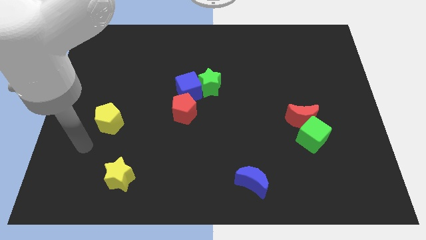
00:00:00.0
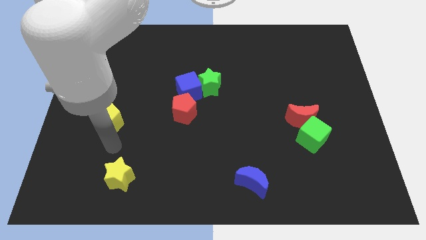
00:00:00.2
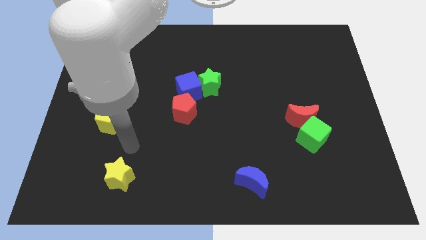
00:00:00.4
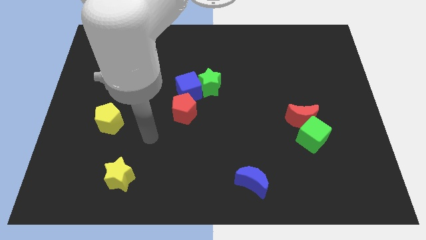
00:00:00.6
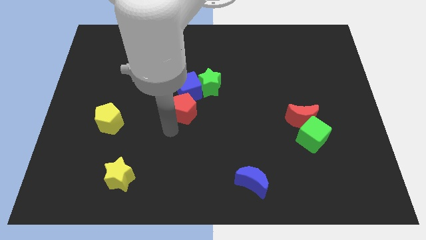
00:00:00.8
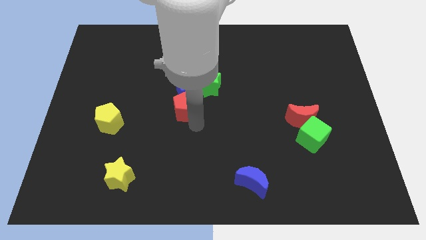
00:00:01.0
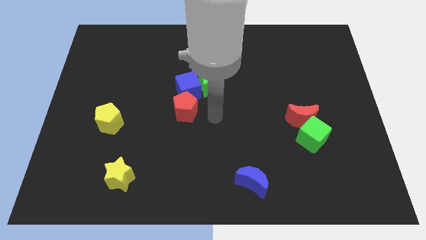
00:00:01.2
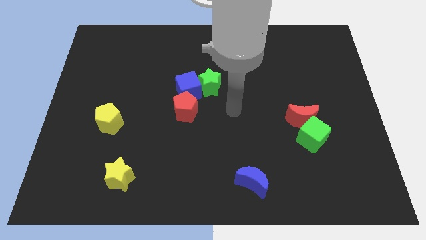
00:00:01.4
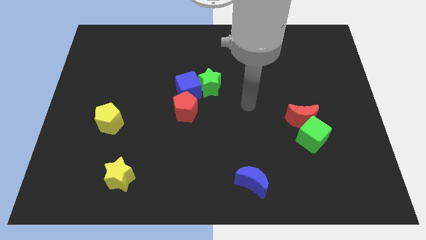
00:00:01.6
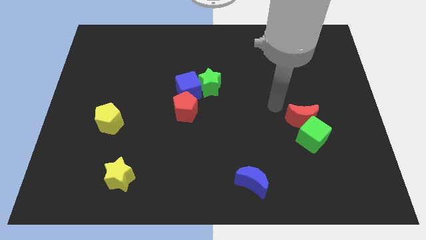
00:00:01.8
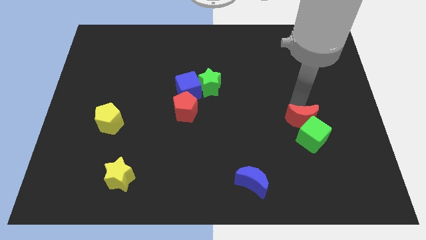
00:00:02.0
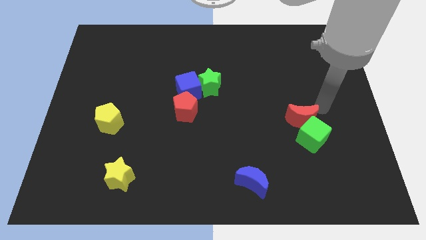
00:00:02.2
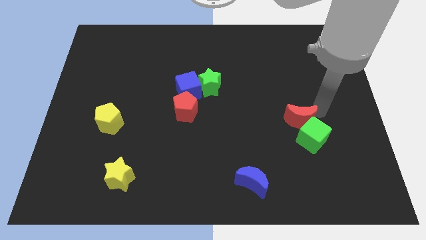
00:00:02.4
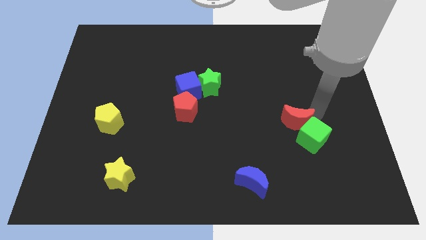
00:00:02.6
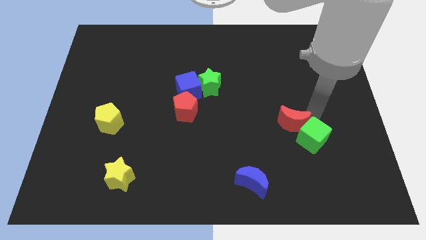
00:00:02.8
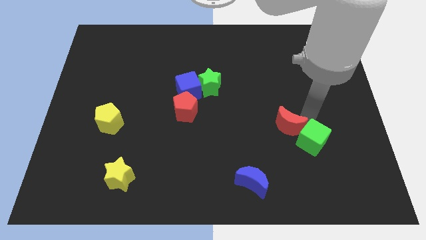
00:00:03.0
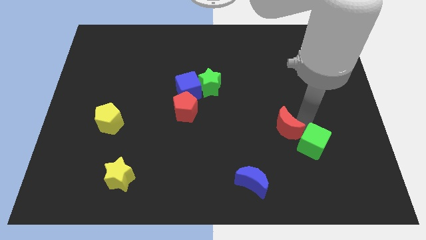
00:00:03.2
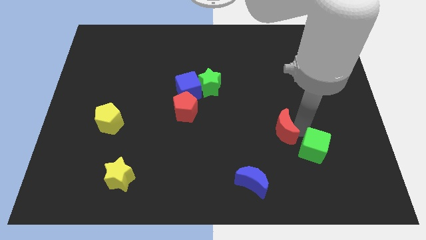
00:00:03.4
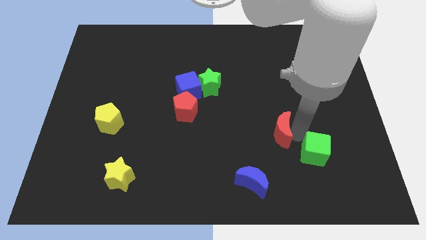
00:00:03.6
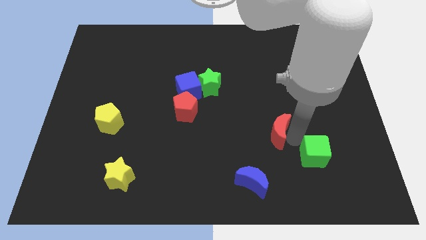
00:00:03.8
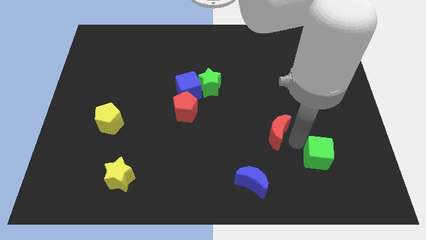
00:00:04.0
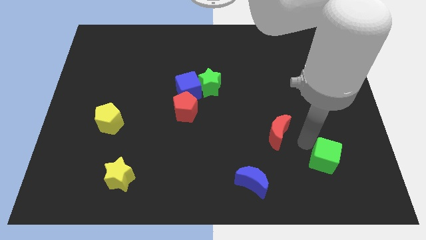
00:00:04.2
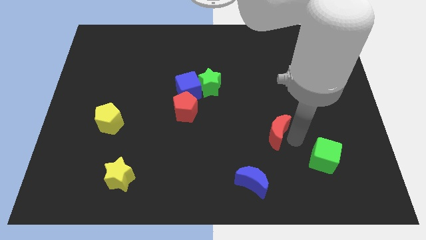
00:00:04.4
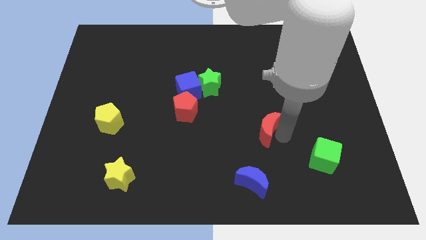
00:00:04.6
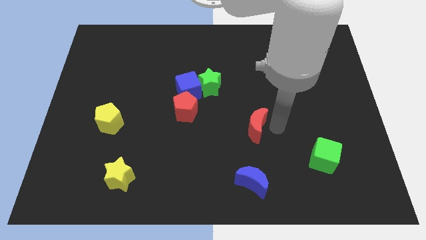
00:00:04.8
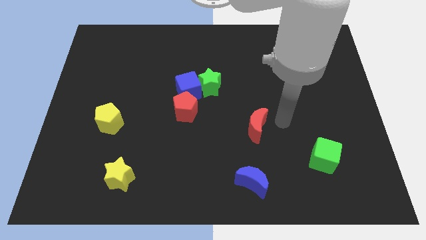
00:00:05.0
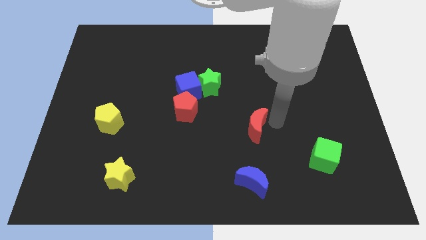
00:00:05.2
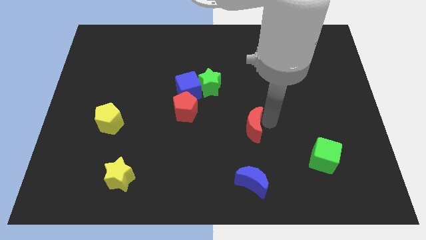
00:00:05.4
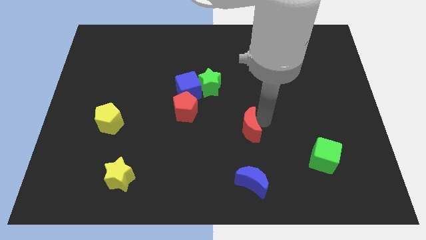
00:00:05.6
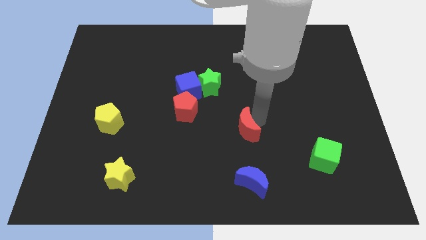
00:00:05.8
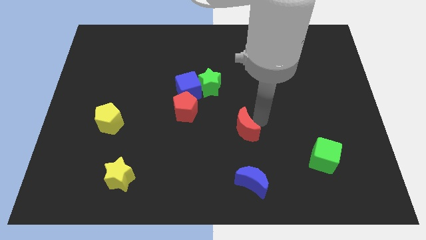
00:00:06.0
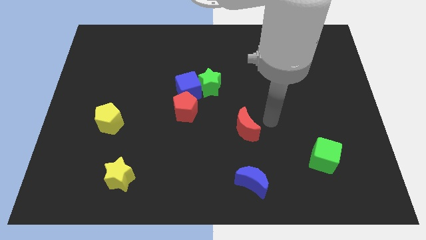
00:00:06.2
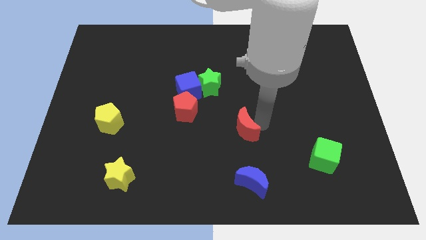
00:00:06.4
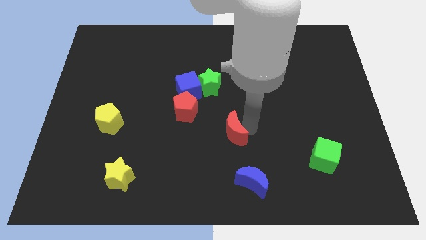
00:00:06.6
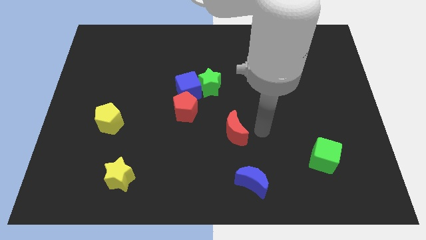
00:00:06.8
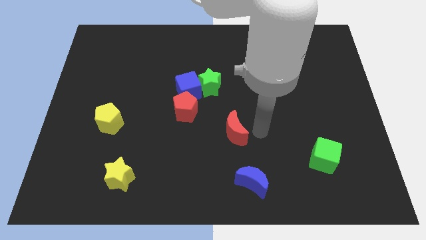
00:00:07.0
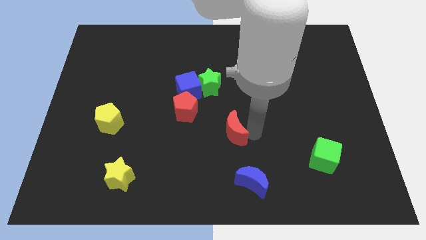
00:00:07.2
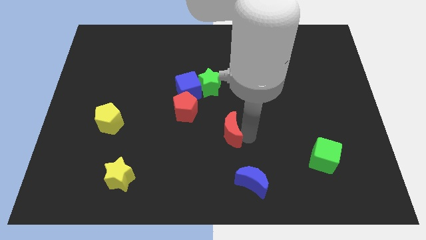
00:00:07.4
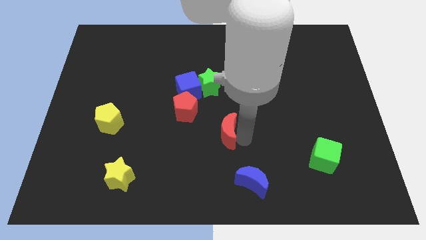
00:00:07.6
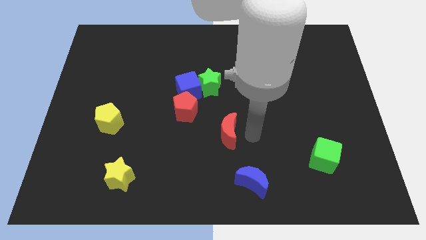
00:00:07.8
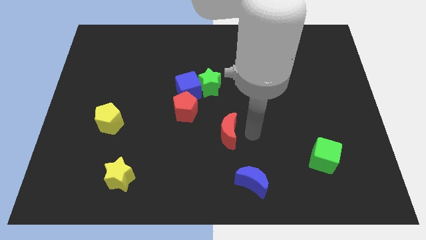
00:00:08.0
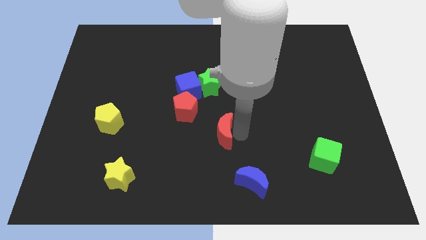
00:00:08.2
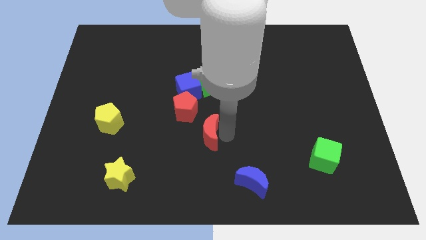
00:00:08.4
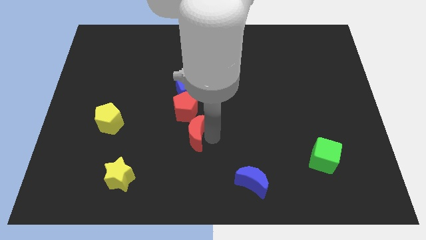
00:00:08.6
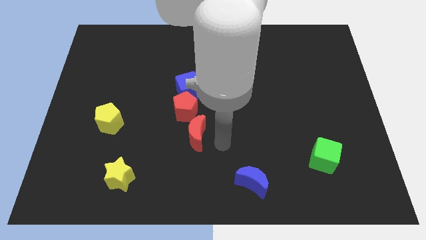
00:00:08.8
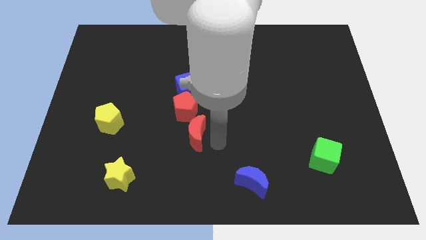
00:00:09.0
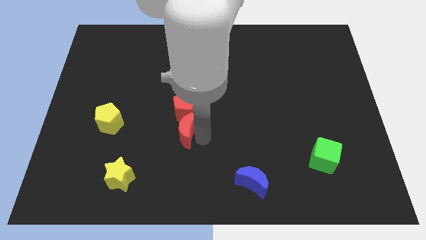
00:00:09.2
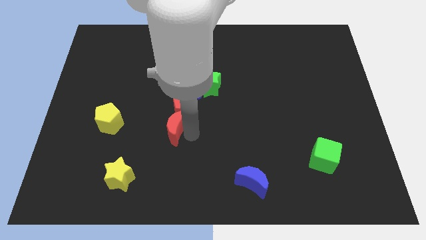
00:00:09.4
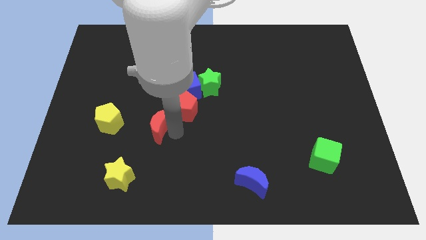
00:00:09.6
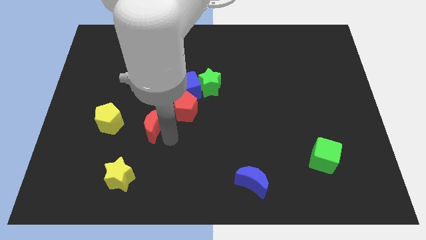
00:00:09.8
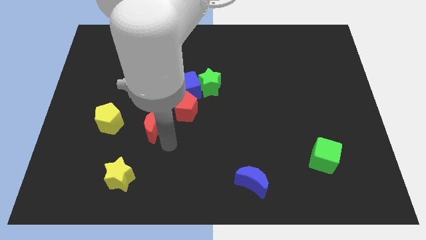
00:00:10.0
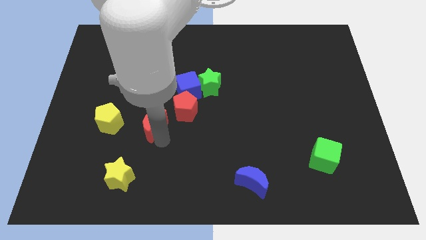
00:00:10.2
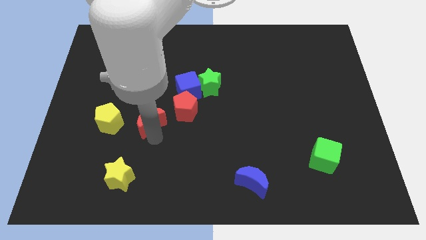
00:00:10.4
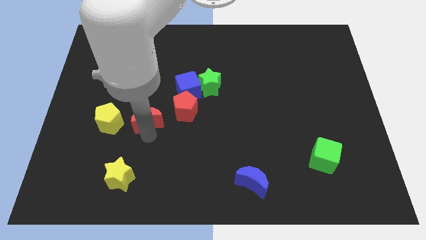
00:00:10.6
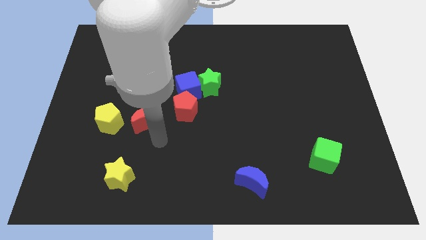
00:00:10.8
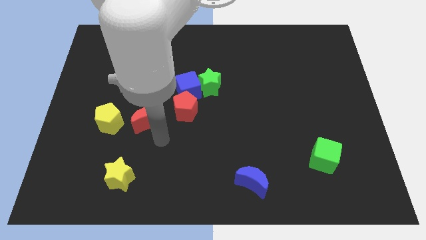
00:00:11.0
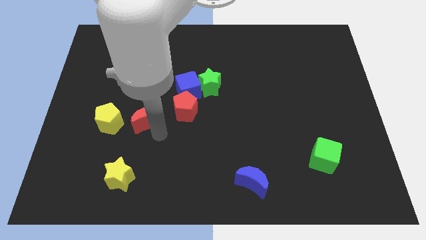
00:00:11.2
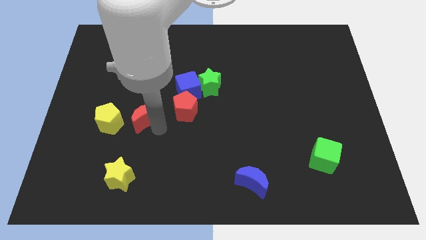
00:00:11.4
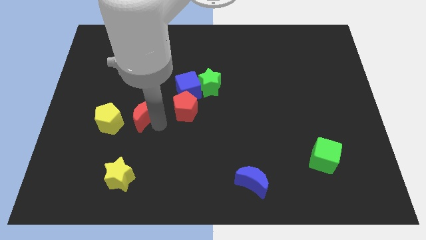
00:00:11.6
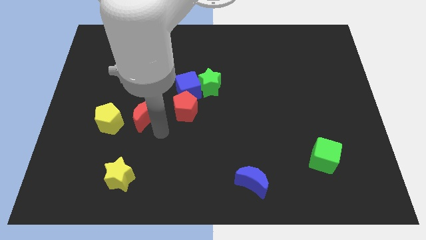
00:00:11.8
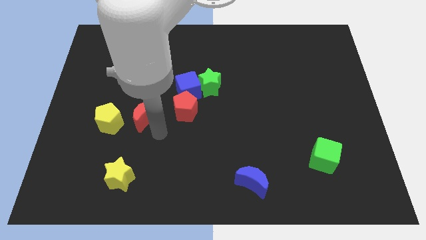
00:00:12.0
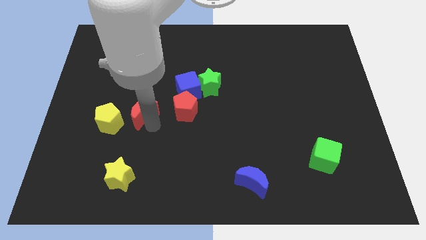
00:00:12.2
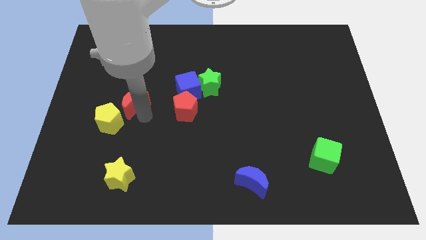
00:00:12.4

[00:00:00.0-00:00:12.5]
move the red moon to the top of the yellow pentagon
